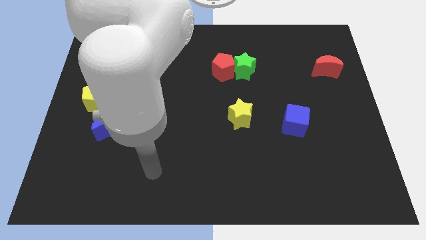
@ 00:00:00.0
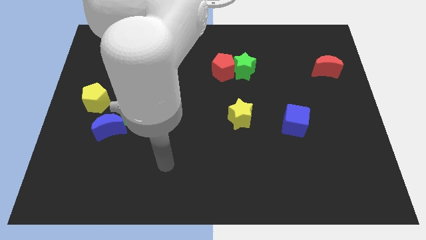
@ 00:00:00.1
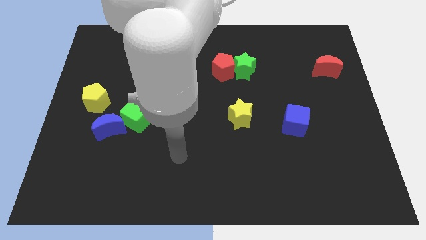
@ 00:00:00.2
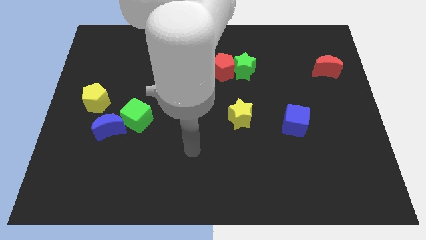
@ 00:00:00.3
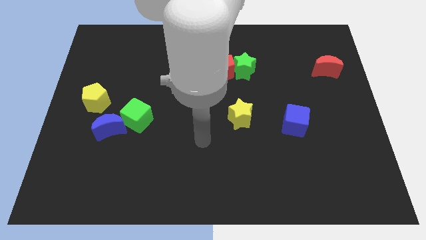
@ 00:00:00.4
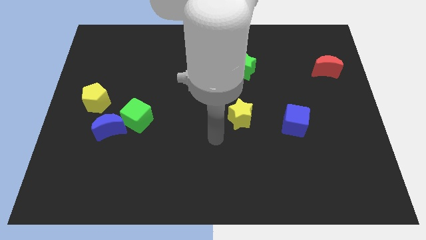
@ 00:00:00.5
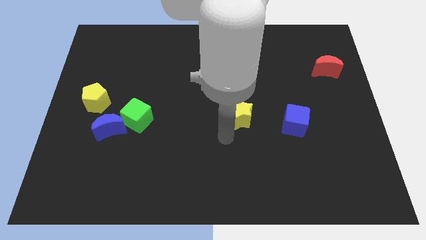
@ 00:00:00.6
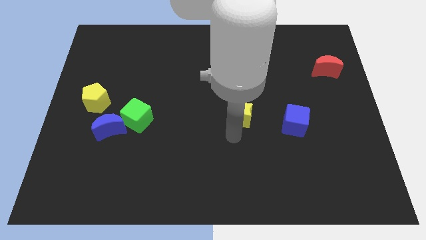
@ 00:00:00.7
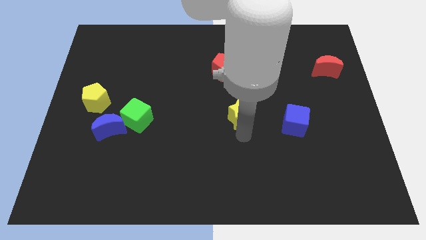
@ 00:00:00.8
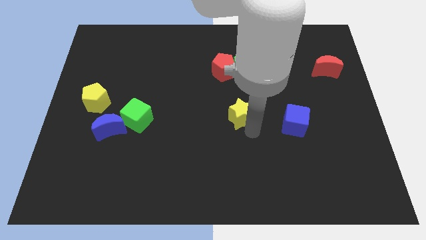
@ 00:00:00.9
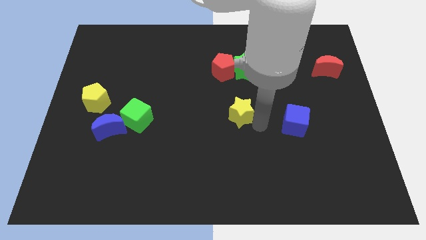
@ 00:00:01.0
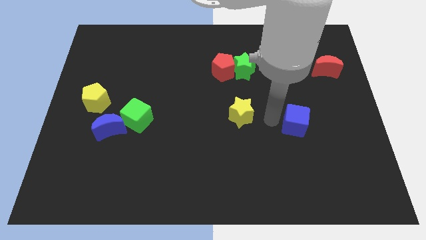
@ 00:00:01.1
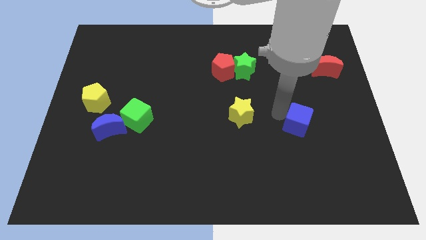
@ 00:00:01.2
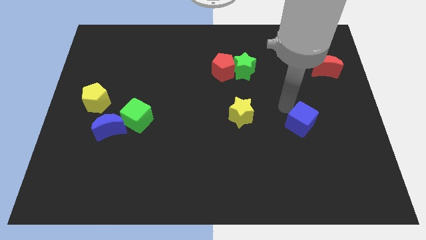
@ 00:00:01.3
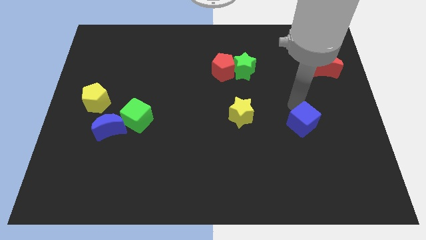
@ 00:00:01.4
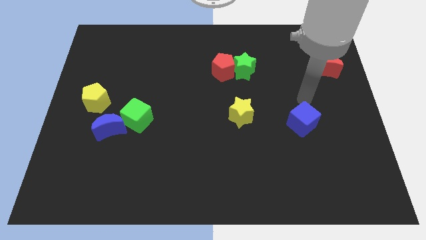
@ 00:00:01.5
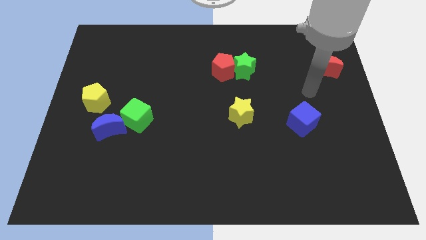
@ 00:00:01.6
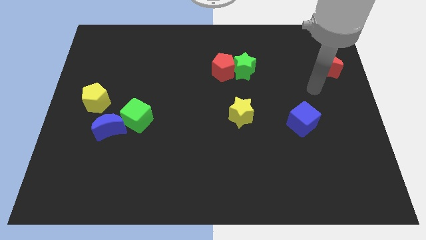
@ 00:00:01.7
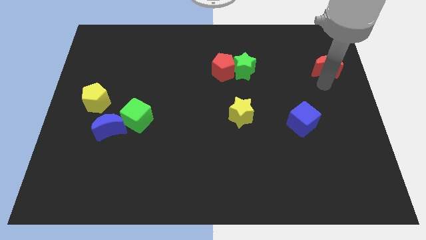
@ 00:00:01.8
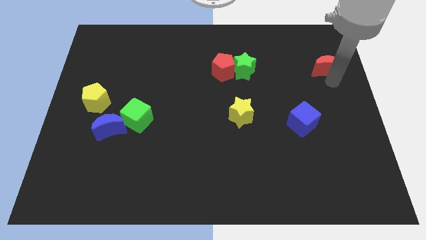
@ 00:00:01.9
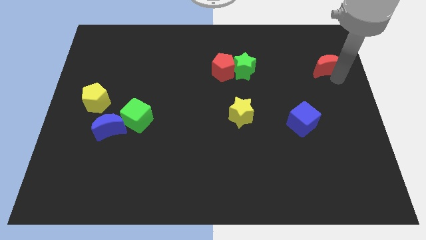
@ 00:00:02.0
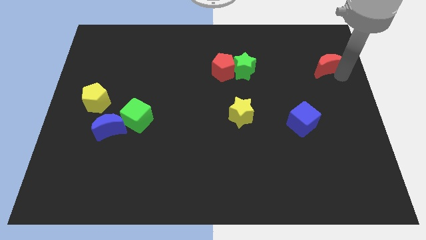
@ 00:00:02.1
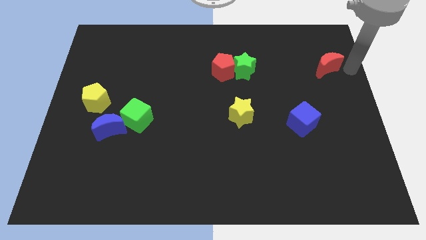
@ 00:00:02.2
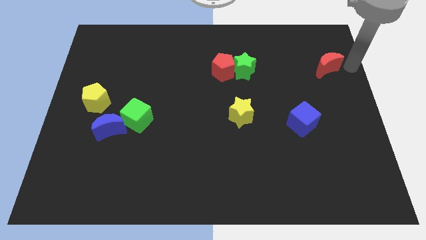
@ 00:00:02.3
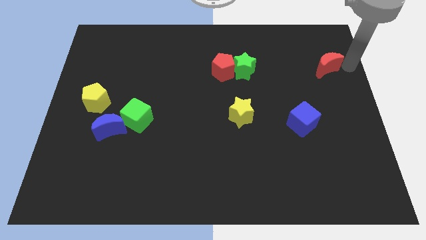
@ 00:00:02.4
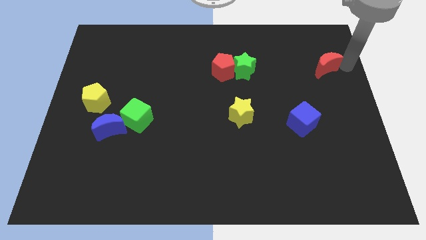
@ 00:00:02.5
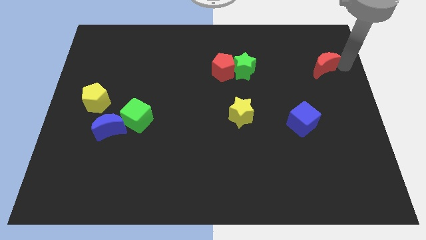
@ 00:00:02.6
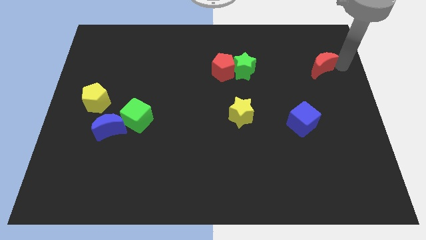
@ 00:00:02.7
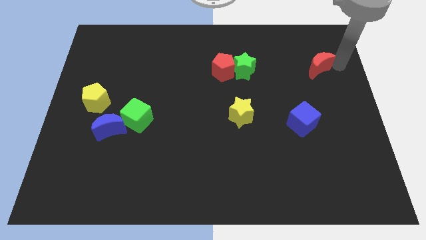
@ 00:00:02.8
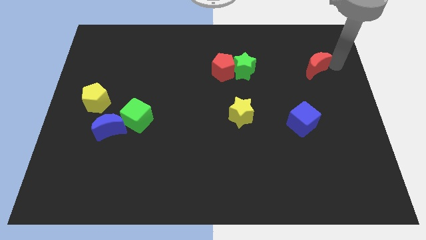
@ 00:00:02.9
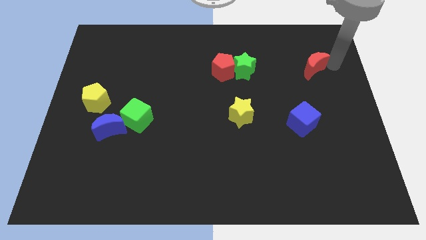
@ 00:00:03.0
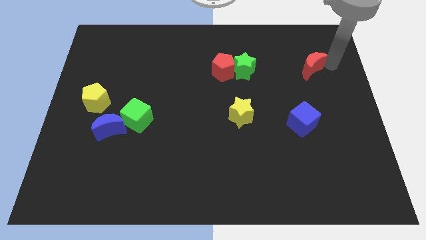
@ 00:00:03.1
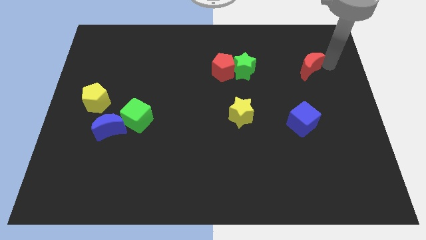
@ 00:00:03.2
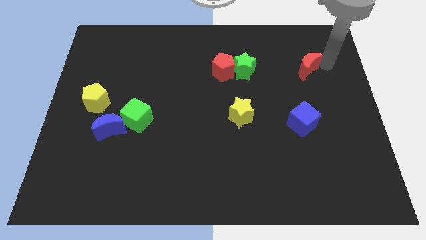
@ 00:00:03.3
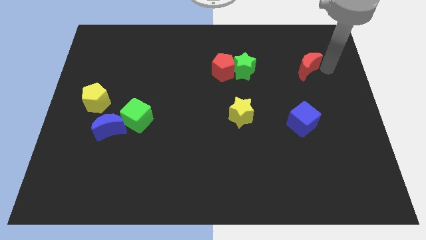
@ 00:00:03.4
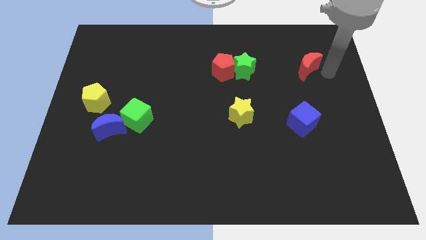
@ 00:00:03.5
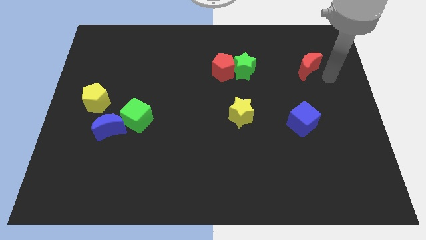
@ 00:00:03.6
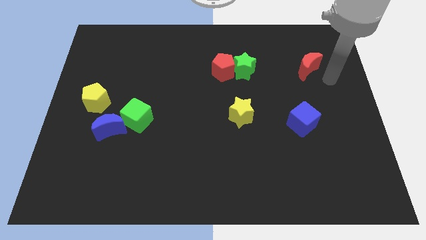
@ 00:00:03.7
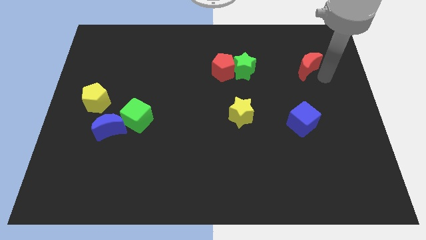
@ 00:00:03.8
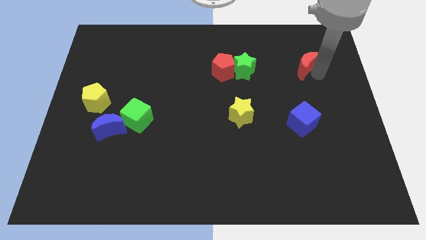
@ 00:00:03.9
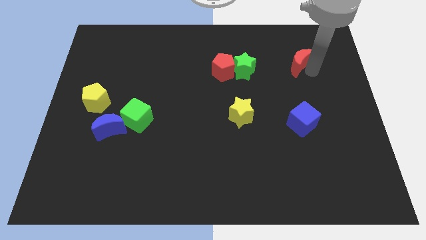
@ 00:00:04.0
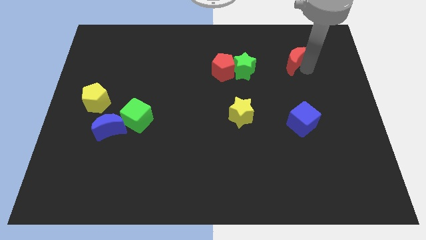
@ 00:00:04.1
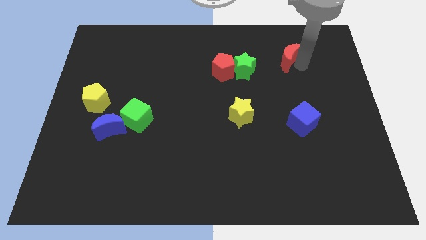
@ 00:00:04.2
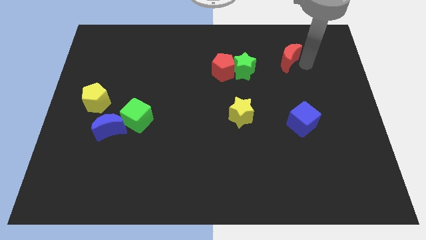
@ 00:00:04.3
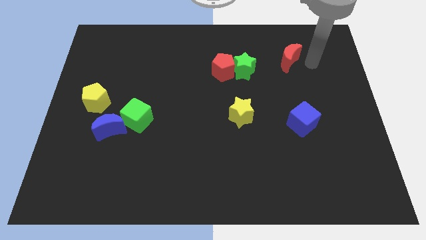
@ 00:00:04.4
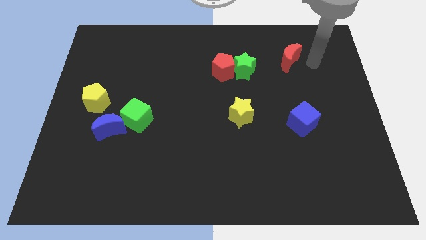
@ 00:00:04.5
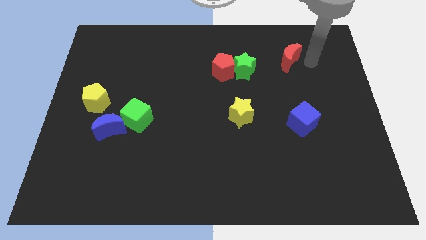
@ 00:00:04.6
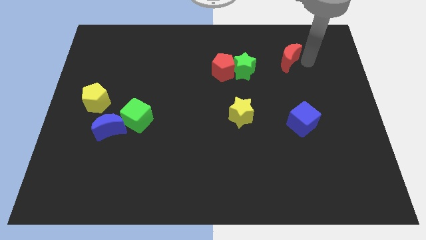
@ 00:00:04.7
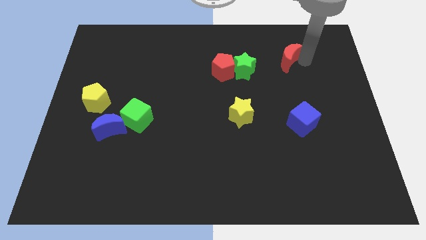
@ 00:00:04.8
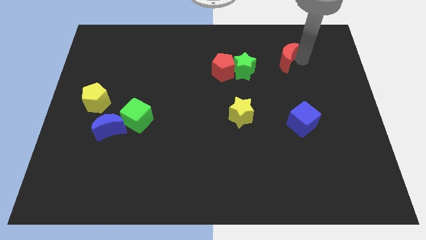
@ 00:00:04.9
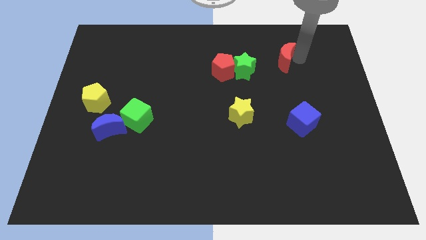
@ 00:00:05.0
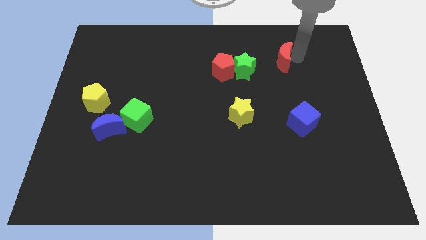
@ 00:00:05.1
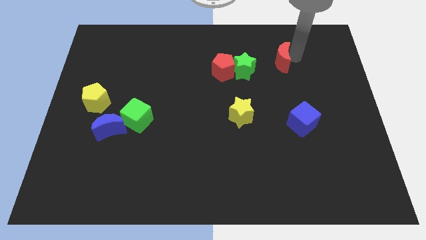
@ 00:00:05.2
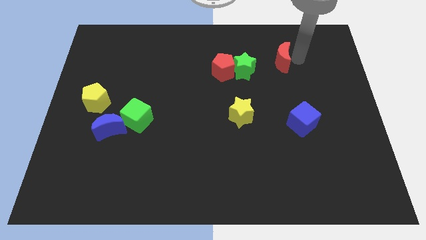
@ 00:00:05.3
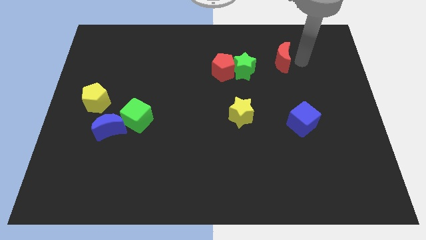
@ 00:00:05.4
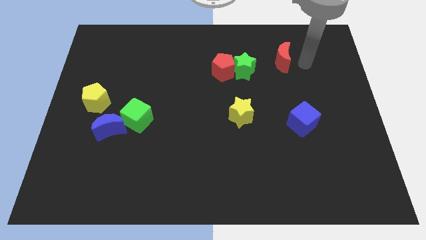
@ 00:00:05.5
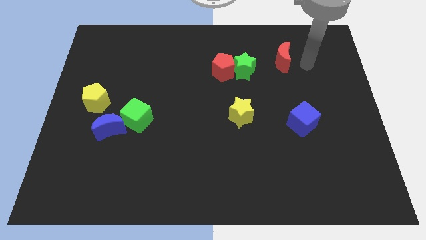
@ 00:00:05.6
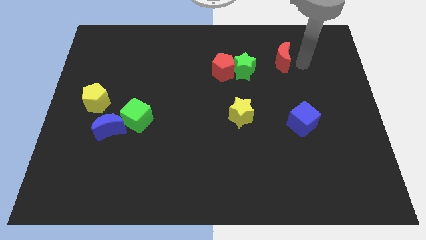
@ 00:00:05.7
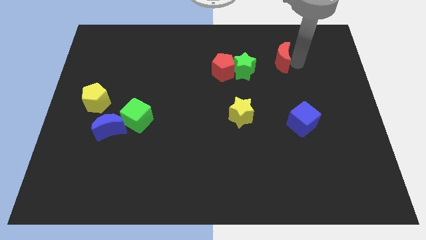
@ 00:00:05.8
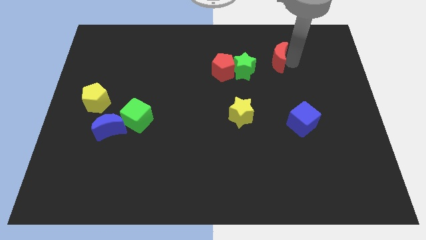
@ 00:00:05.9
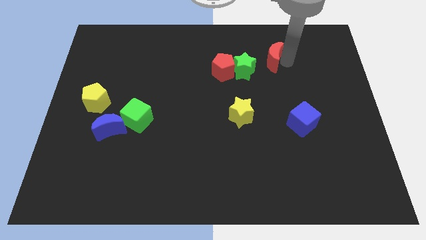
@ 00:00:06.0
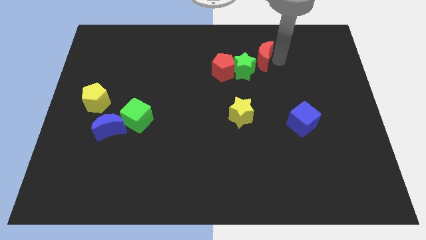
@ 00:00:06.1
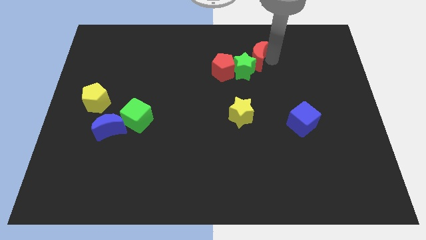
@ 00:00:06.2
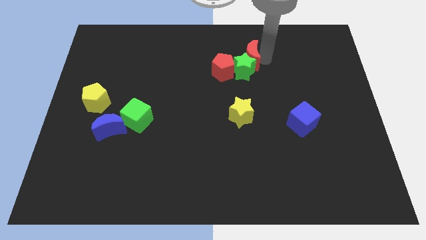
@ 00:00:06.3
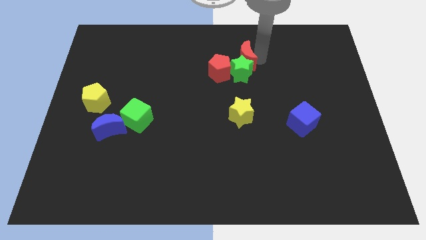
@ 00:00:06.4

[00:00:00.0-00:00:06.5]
slide the red moon to the top left side of the green star
